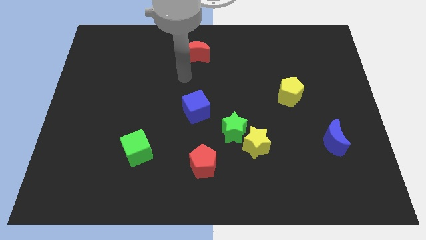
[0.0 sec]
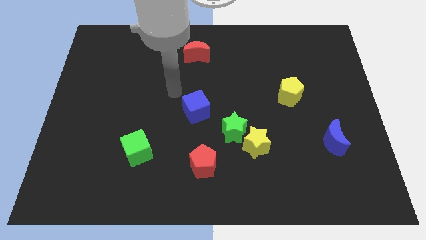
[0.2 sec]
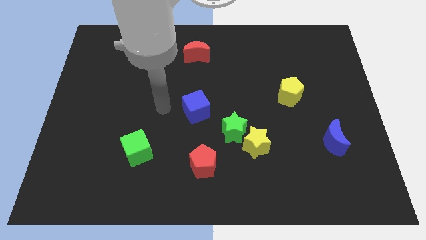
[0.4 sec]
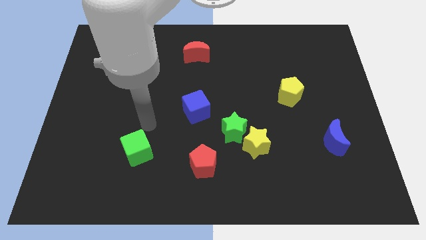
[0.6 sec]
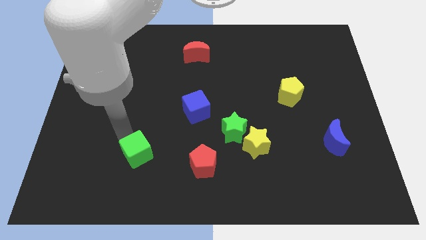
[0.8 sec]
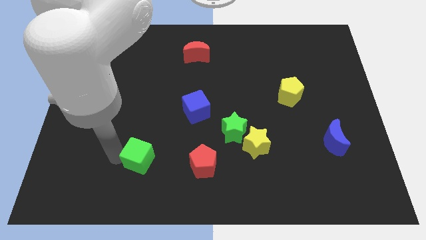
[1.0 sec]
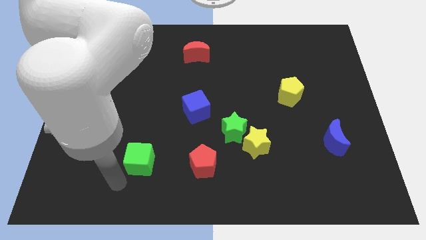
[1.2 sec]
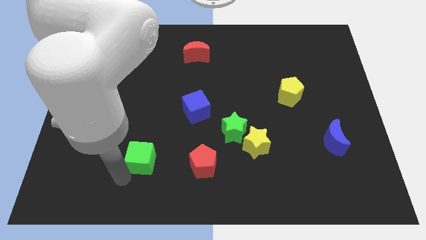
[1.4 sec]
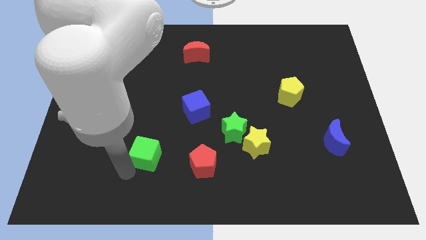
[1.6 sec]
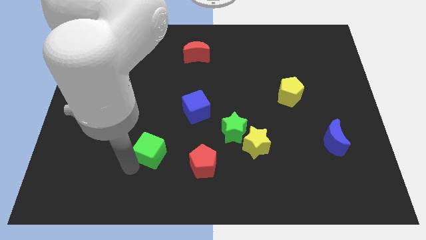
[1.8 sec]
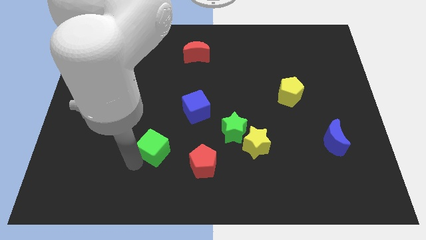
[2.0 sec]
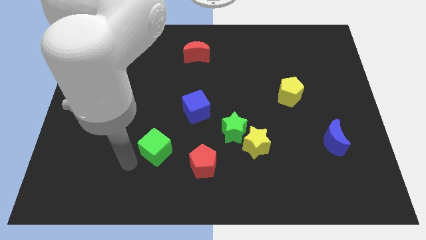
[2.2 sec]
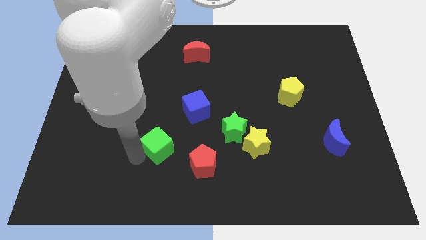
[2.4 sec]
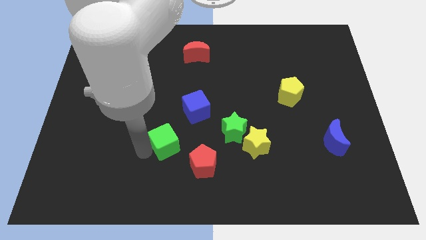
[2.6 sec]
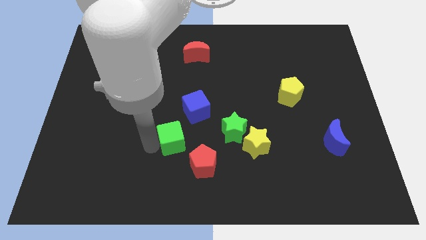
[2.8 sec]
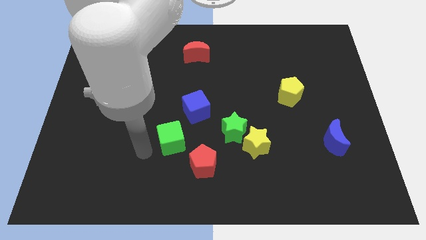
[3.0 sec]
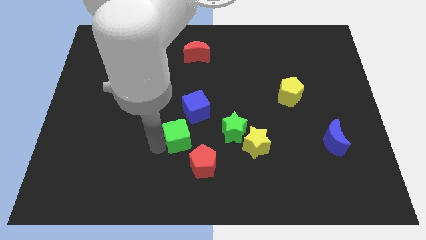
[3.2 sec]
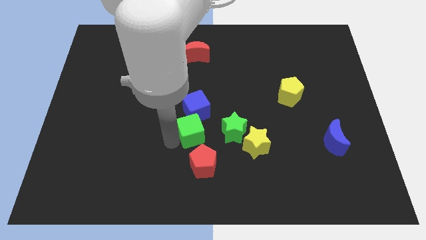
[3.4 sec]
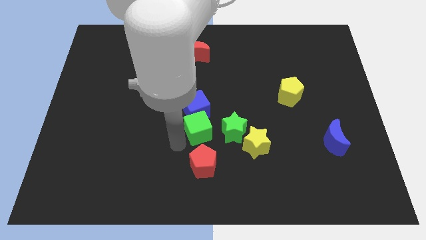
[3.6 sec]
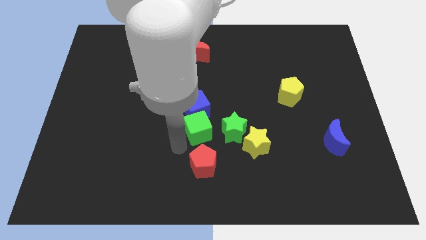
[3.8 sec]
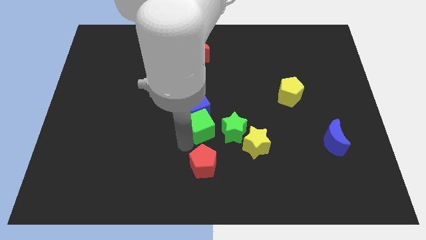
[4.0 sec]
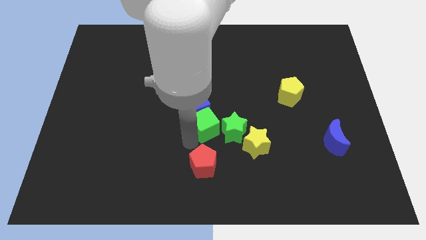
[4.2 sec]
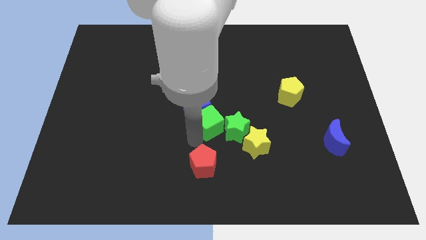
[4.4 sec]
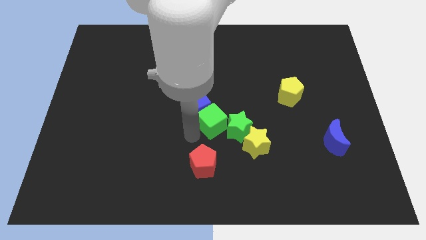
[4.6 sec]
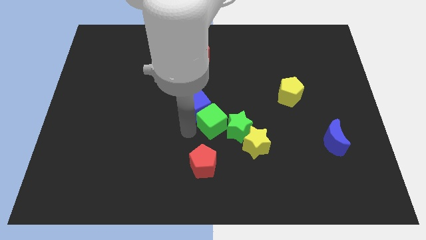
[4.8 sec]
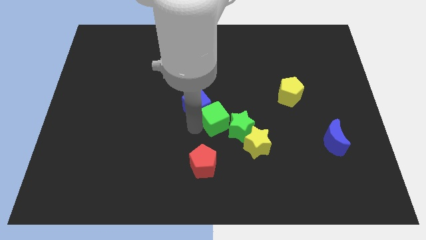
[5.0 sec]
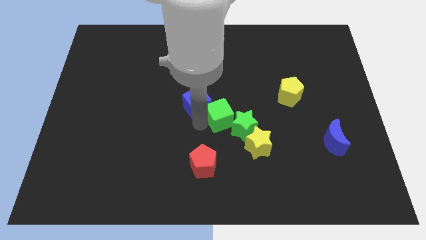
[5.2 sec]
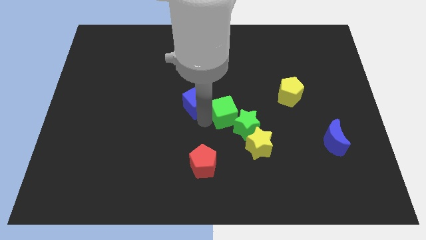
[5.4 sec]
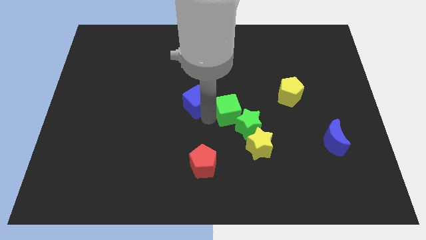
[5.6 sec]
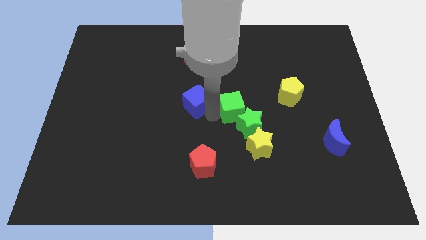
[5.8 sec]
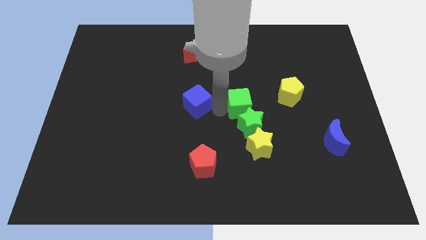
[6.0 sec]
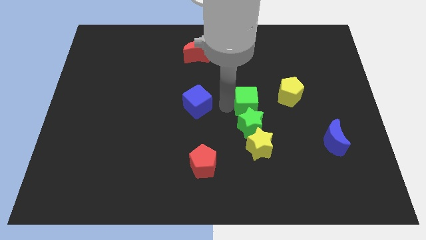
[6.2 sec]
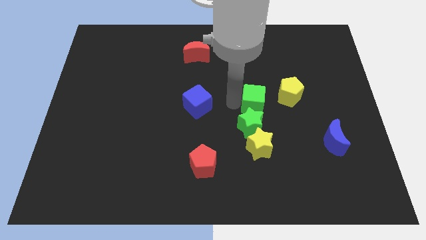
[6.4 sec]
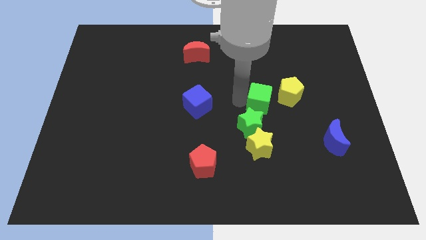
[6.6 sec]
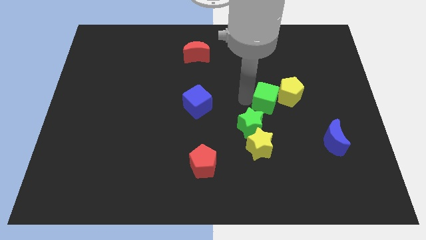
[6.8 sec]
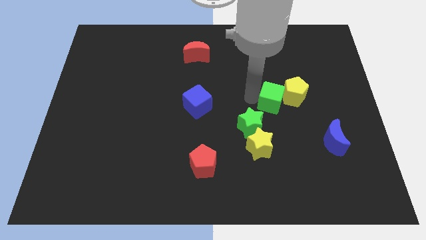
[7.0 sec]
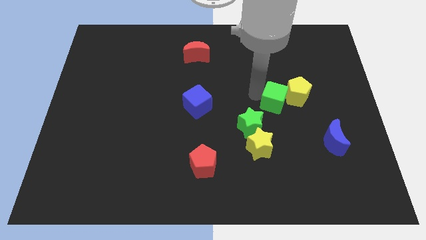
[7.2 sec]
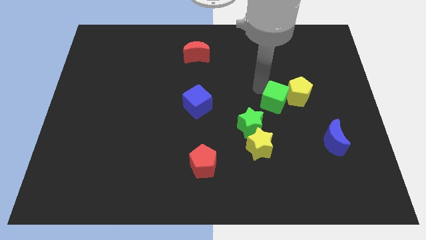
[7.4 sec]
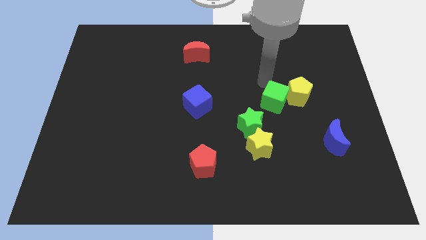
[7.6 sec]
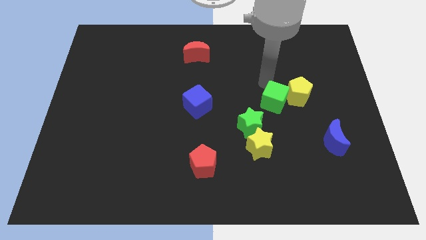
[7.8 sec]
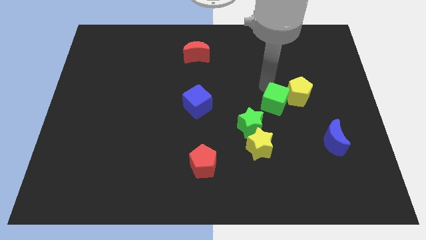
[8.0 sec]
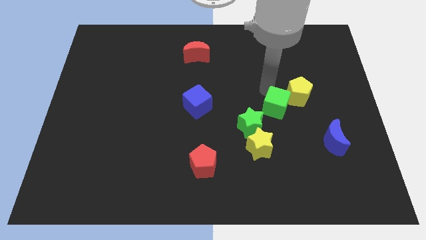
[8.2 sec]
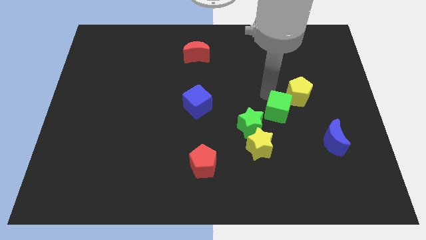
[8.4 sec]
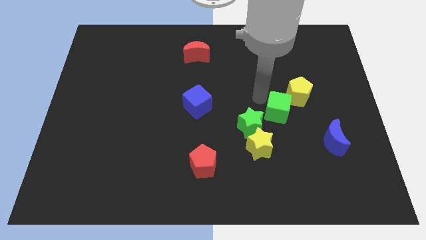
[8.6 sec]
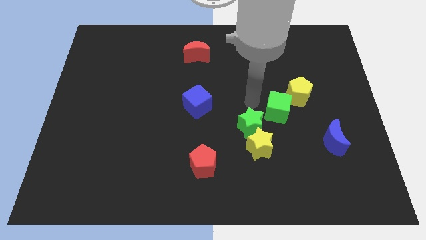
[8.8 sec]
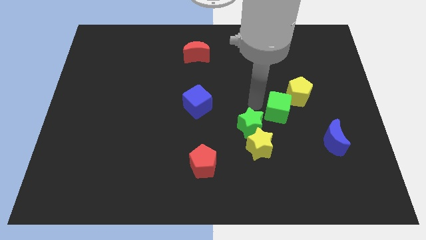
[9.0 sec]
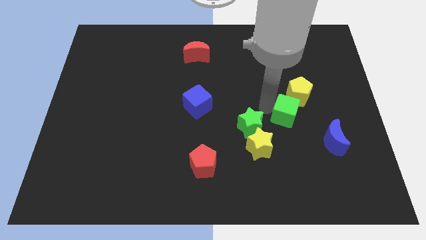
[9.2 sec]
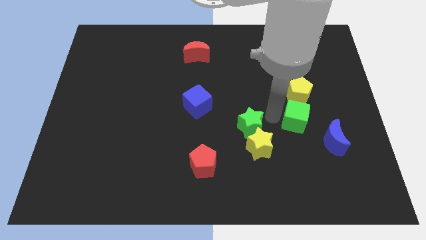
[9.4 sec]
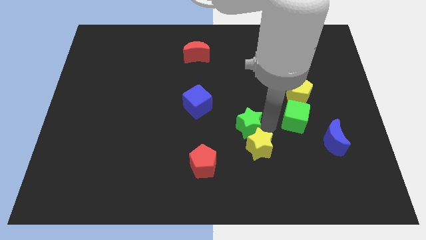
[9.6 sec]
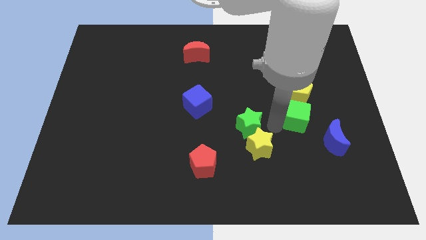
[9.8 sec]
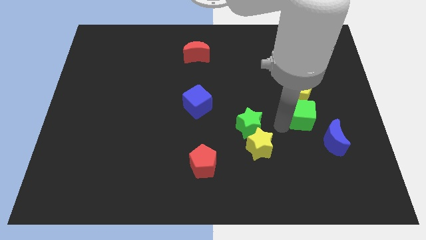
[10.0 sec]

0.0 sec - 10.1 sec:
slide the green cube to the bottom right side of the yellow pentagon

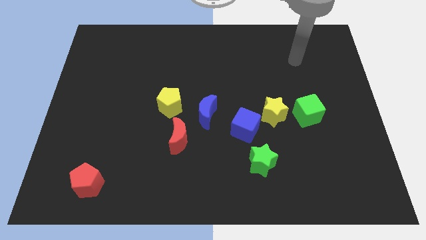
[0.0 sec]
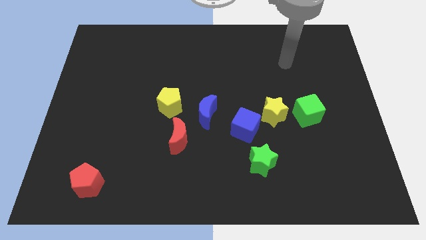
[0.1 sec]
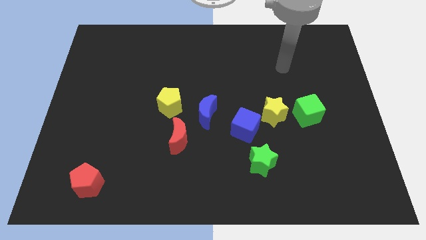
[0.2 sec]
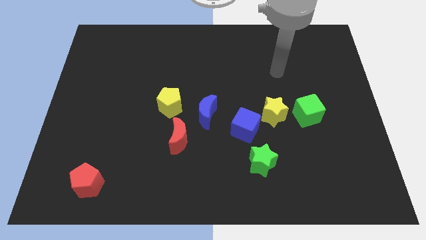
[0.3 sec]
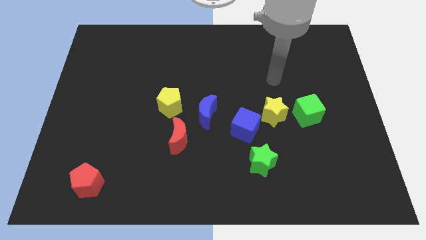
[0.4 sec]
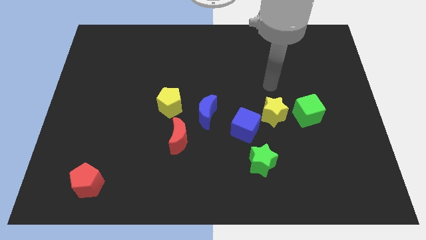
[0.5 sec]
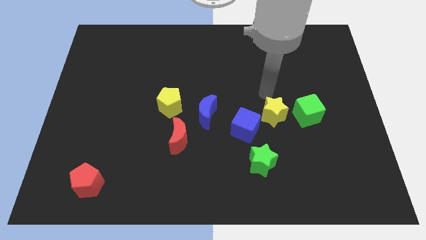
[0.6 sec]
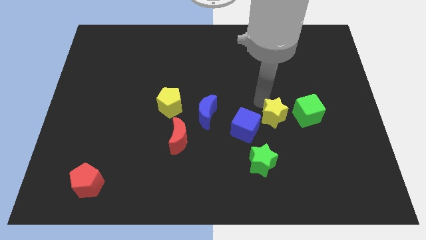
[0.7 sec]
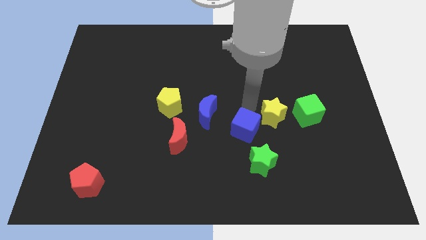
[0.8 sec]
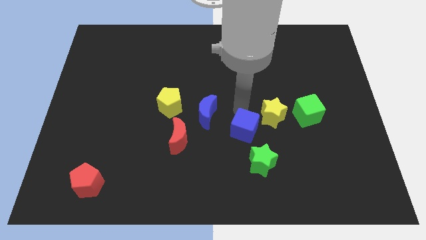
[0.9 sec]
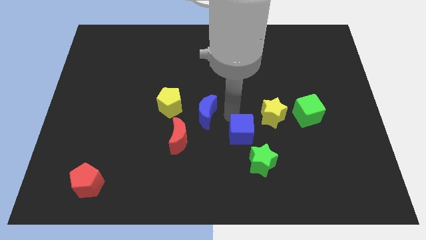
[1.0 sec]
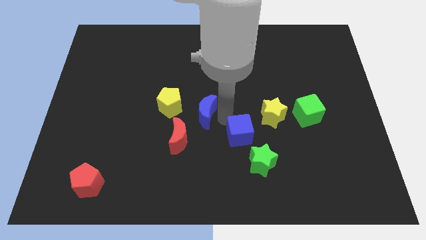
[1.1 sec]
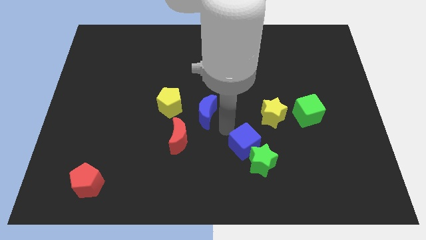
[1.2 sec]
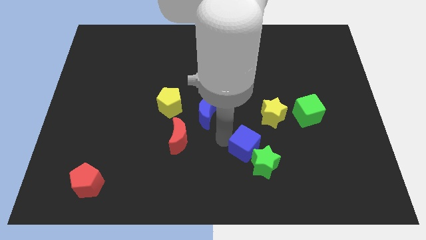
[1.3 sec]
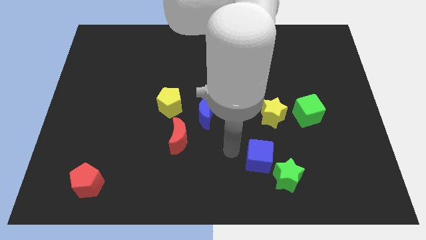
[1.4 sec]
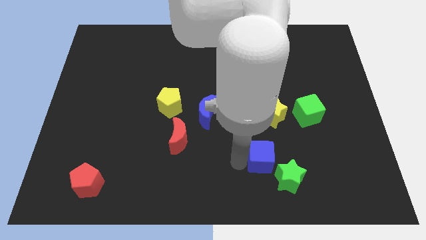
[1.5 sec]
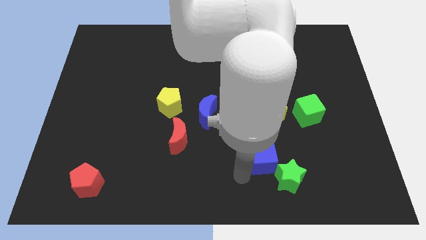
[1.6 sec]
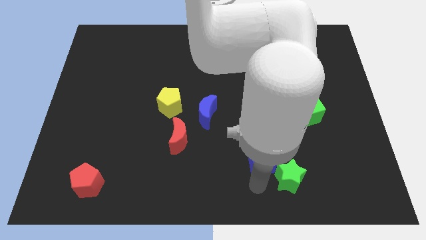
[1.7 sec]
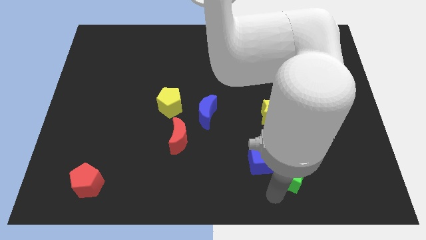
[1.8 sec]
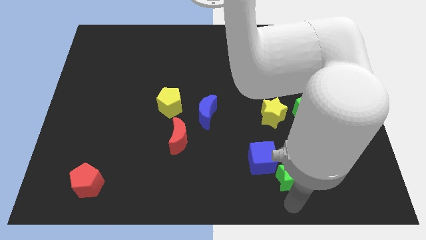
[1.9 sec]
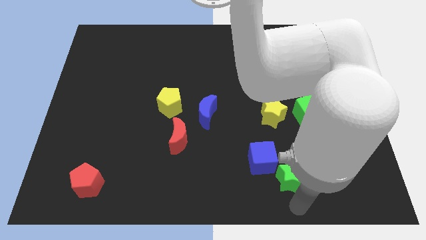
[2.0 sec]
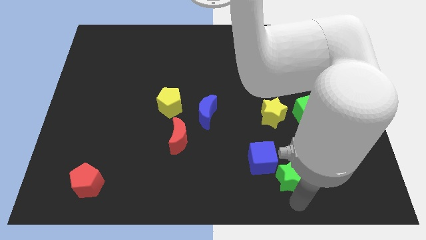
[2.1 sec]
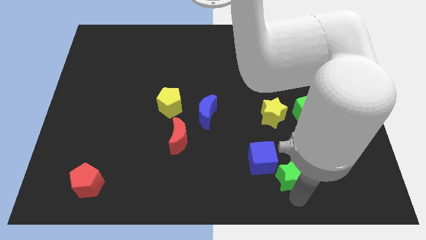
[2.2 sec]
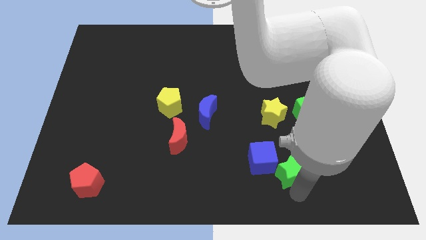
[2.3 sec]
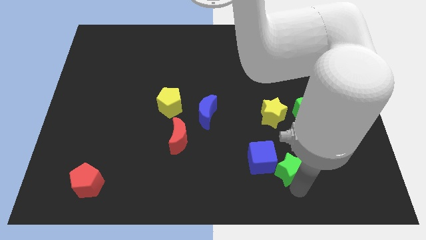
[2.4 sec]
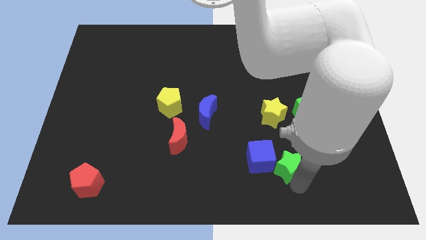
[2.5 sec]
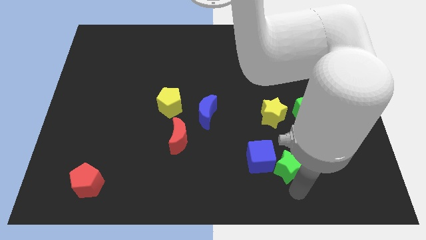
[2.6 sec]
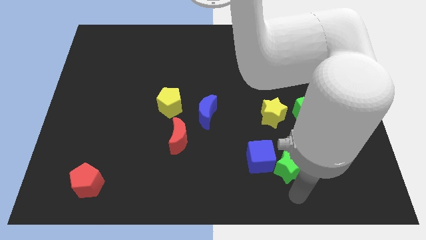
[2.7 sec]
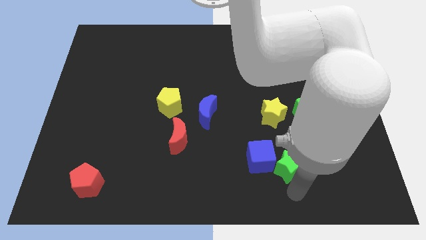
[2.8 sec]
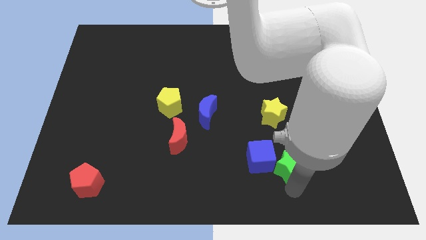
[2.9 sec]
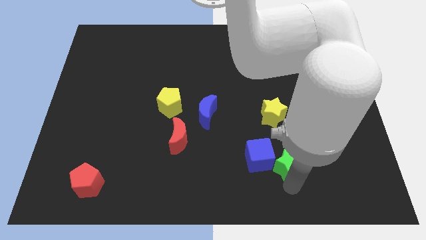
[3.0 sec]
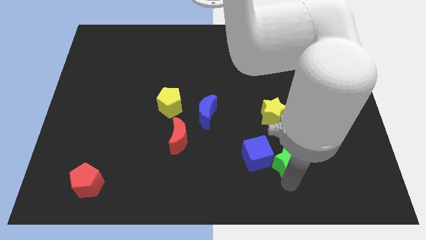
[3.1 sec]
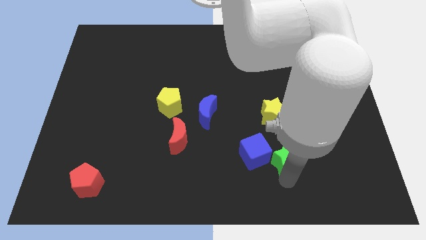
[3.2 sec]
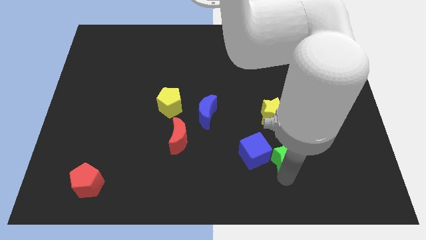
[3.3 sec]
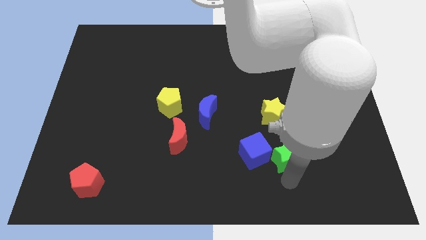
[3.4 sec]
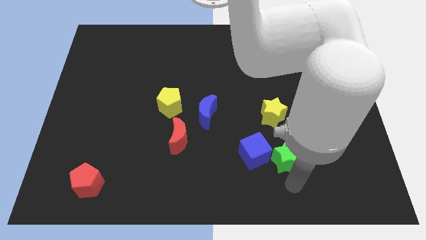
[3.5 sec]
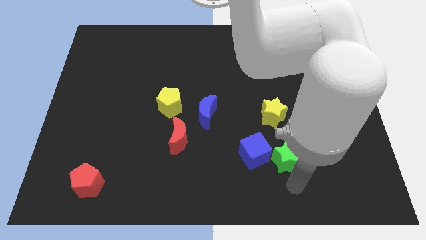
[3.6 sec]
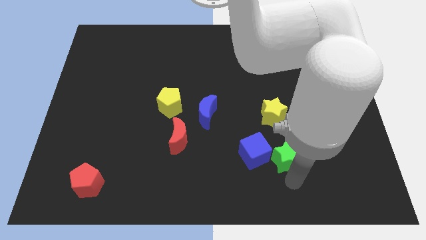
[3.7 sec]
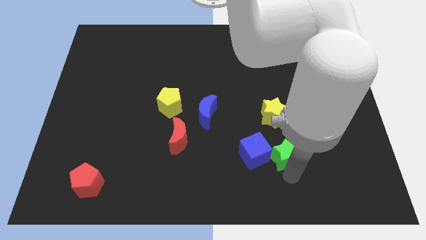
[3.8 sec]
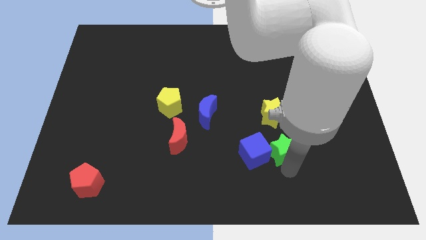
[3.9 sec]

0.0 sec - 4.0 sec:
slide the green star to the bottom left of the green cube
